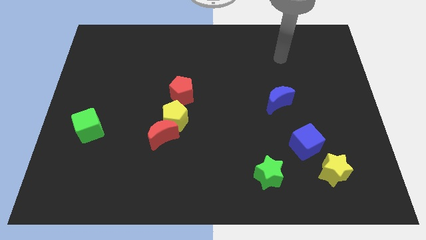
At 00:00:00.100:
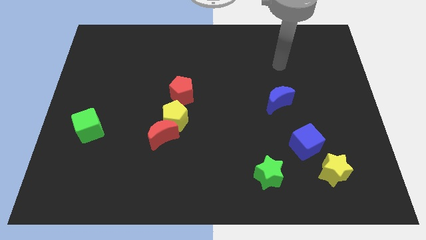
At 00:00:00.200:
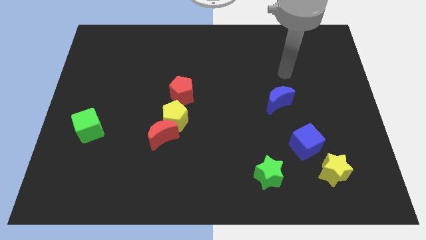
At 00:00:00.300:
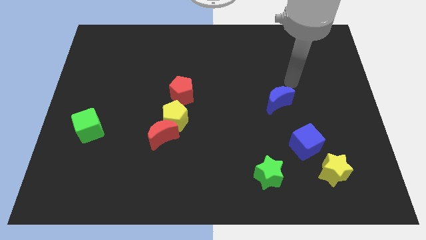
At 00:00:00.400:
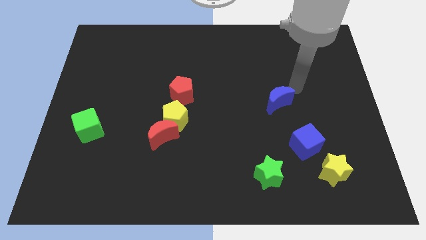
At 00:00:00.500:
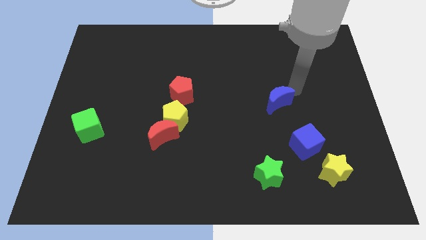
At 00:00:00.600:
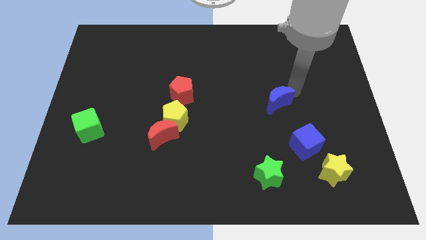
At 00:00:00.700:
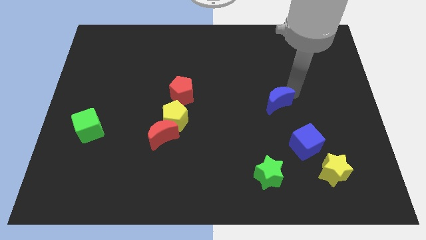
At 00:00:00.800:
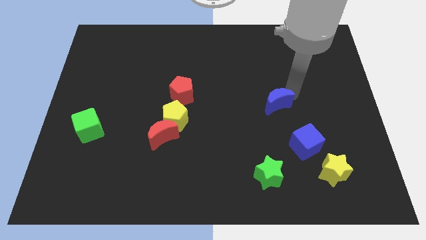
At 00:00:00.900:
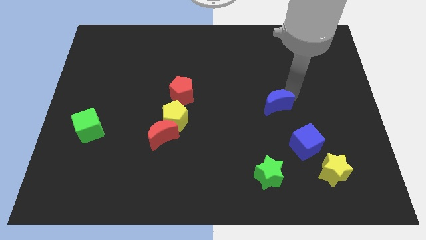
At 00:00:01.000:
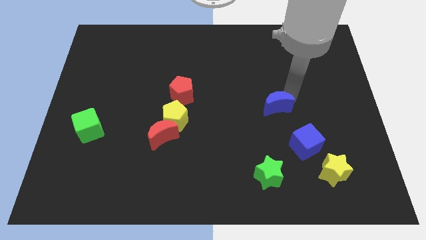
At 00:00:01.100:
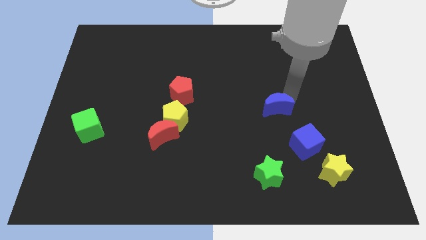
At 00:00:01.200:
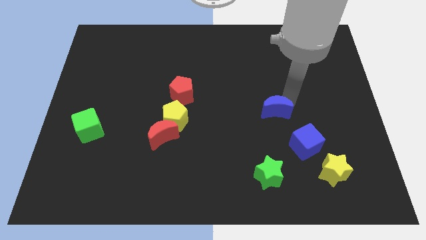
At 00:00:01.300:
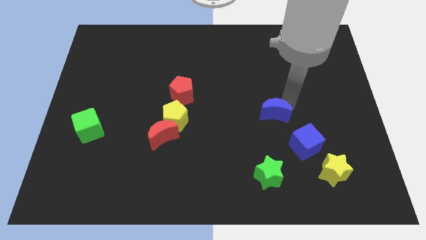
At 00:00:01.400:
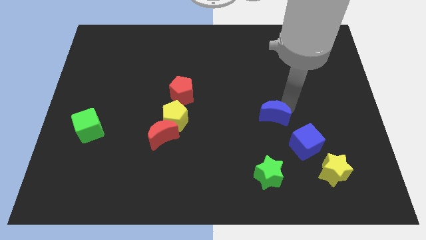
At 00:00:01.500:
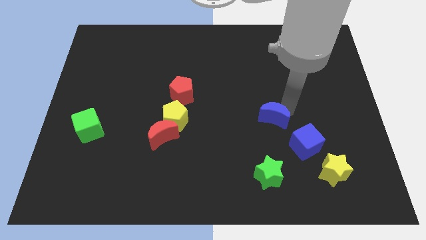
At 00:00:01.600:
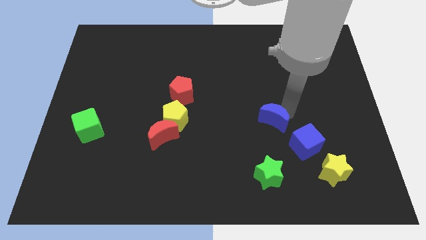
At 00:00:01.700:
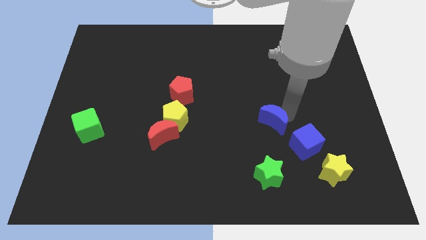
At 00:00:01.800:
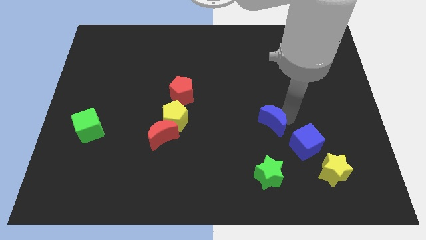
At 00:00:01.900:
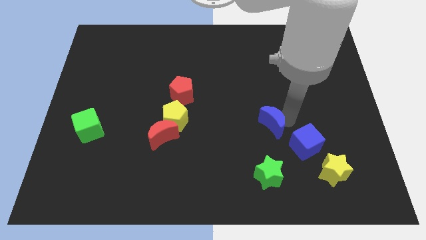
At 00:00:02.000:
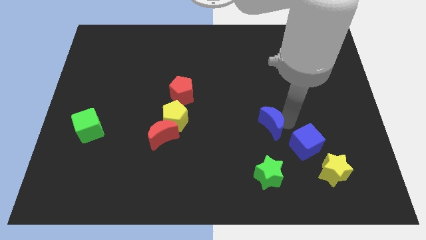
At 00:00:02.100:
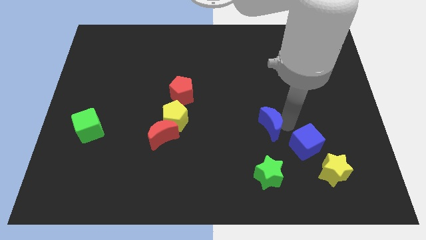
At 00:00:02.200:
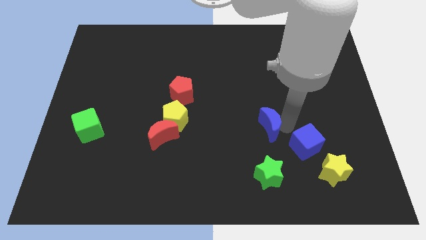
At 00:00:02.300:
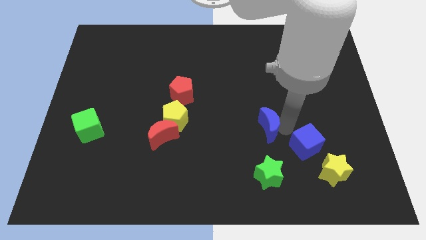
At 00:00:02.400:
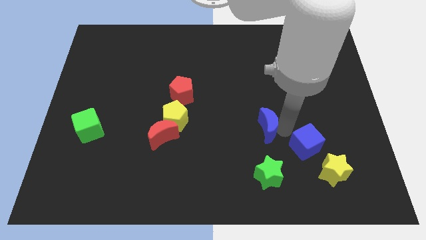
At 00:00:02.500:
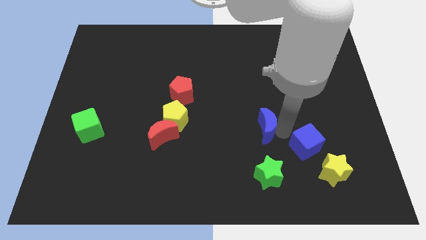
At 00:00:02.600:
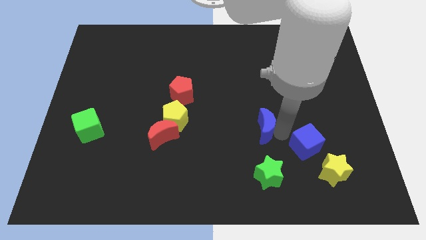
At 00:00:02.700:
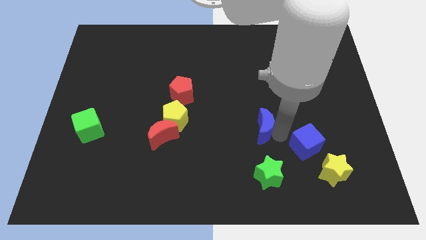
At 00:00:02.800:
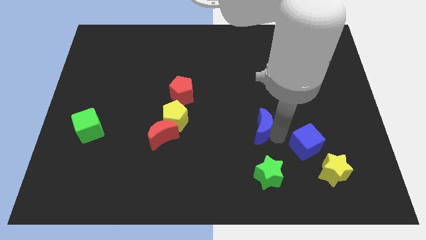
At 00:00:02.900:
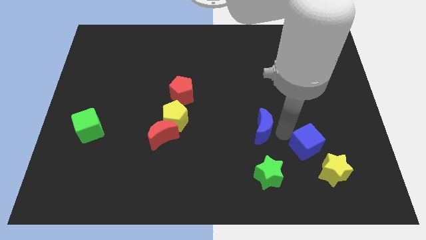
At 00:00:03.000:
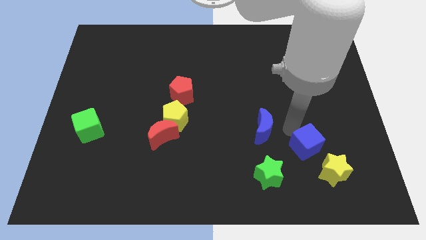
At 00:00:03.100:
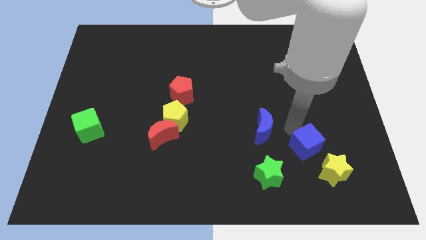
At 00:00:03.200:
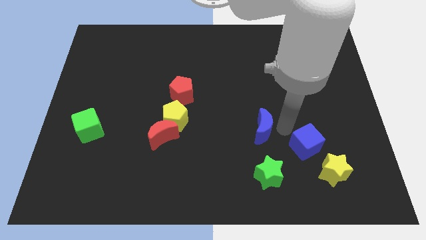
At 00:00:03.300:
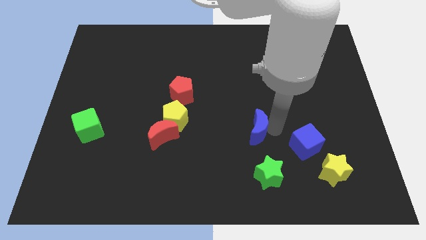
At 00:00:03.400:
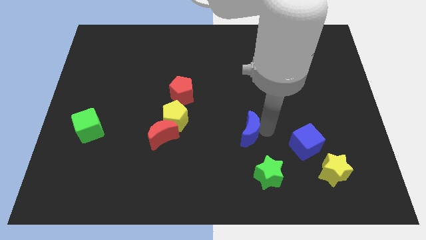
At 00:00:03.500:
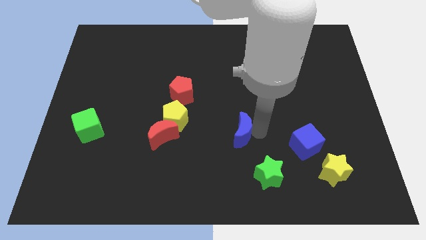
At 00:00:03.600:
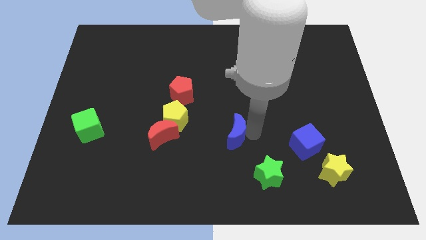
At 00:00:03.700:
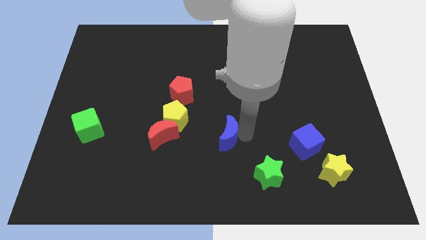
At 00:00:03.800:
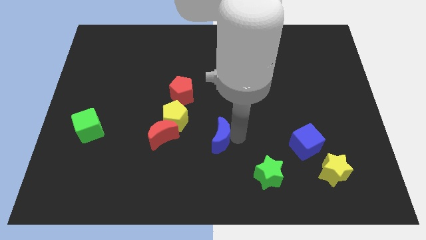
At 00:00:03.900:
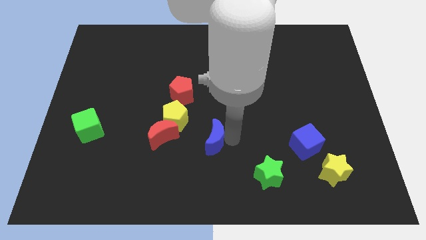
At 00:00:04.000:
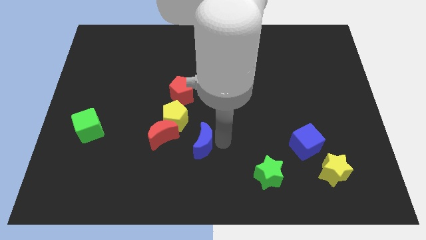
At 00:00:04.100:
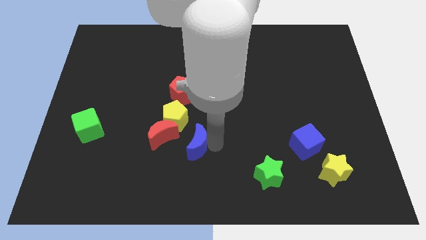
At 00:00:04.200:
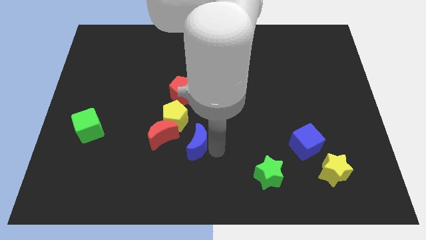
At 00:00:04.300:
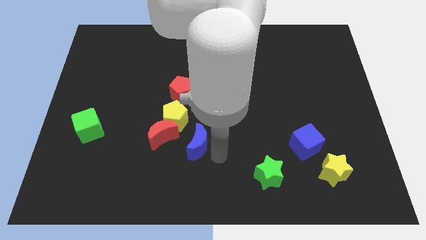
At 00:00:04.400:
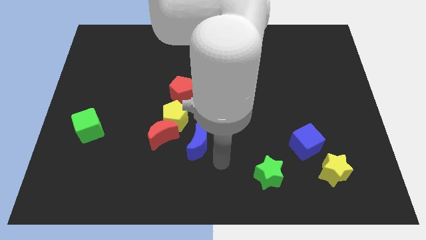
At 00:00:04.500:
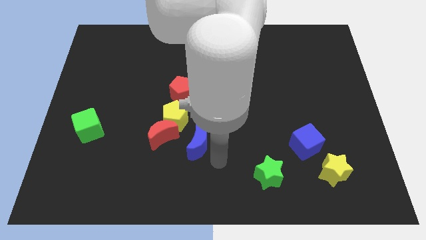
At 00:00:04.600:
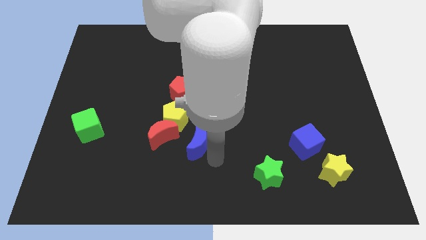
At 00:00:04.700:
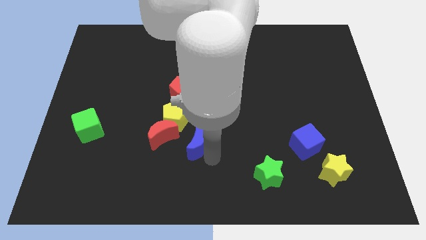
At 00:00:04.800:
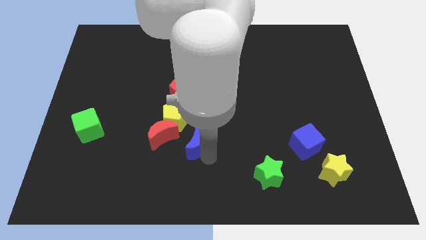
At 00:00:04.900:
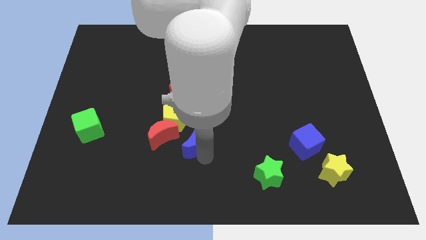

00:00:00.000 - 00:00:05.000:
slide the blue moon to the bottom of the red pentagon

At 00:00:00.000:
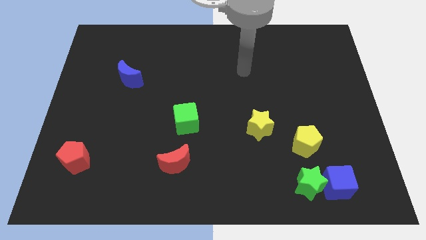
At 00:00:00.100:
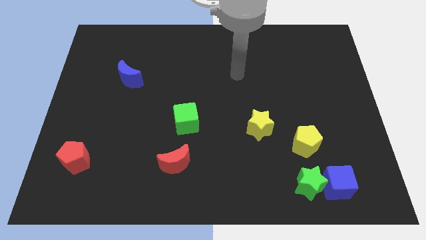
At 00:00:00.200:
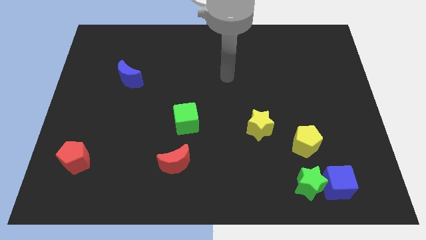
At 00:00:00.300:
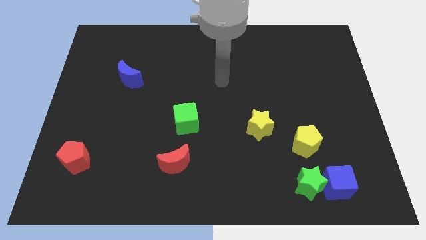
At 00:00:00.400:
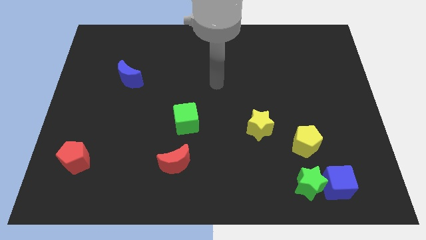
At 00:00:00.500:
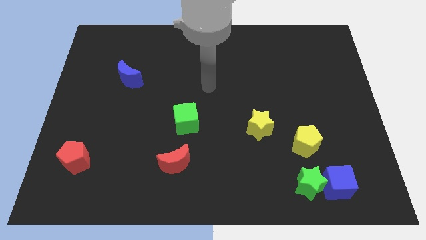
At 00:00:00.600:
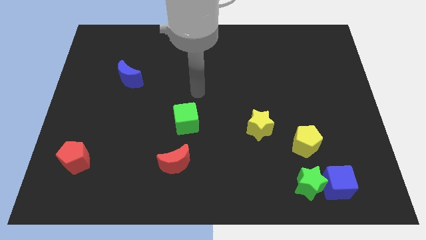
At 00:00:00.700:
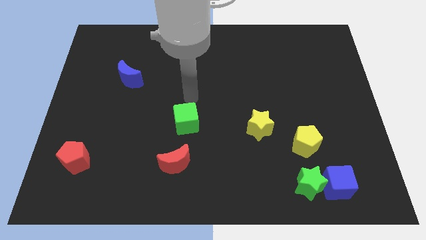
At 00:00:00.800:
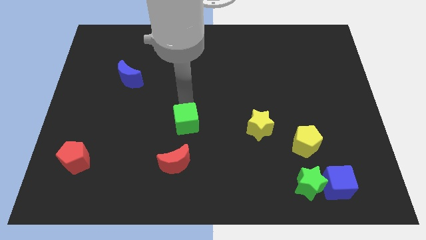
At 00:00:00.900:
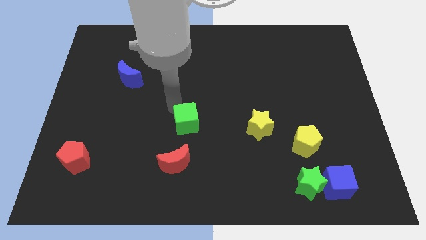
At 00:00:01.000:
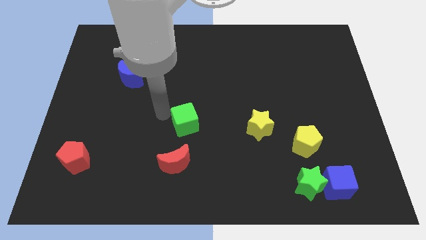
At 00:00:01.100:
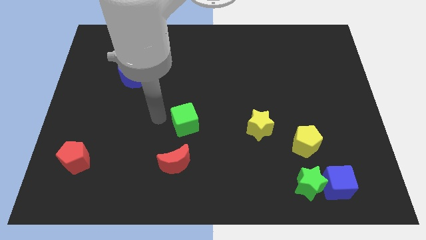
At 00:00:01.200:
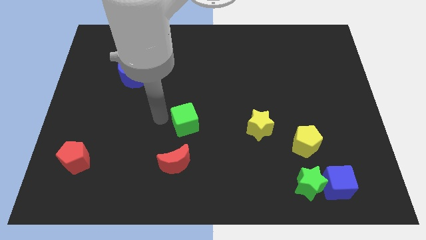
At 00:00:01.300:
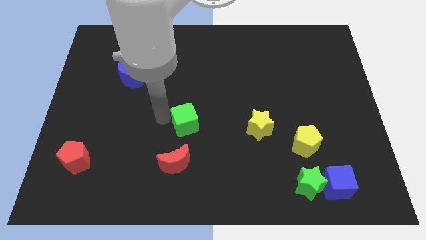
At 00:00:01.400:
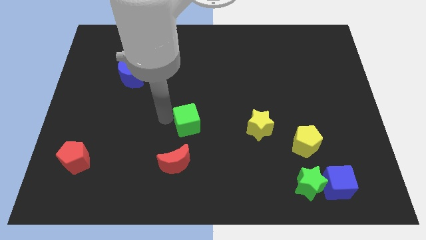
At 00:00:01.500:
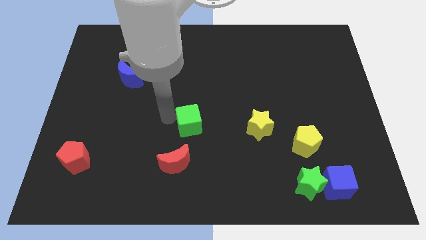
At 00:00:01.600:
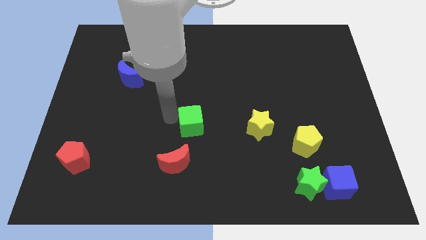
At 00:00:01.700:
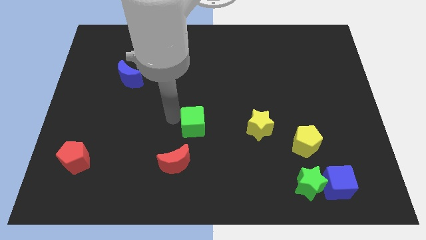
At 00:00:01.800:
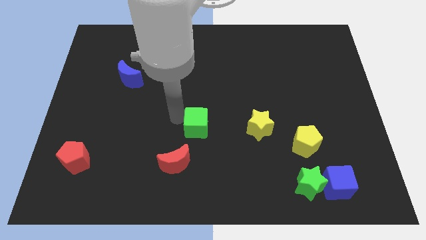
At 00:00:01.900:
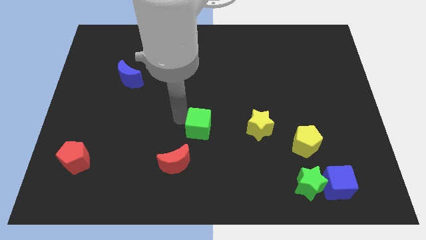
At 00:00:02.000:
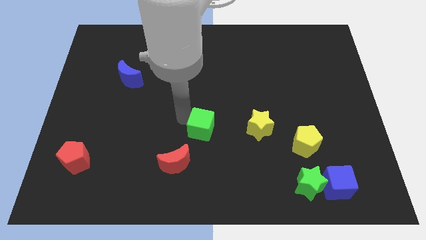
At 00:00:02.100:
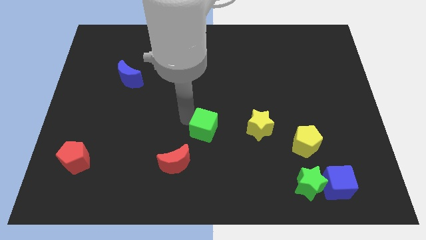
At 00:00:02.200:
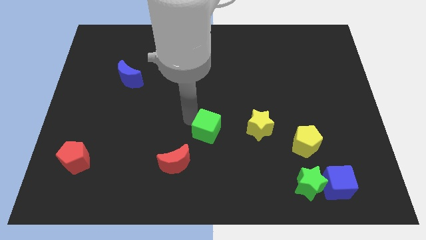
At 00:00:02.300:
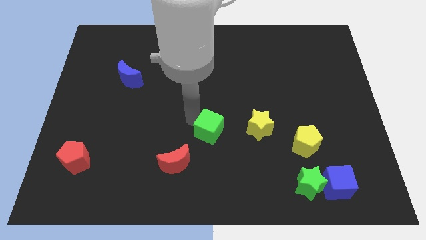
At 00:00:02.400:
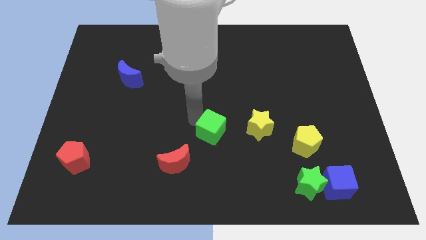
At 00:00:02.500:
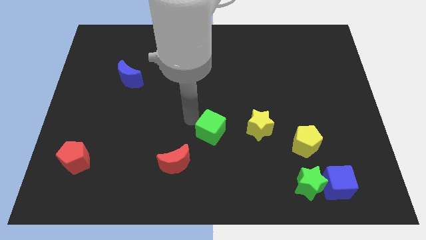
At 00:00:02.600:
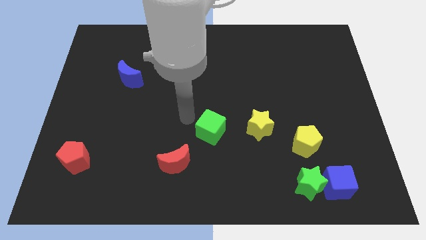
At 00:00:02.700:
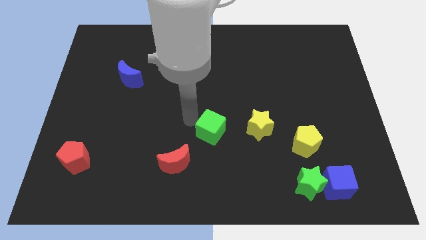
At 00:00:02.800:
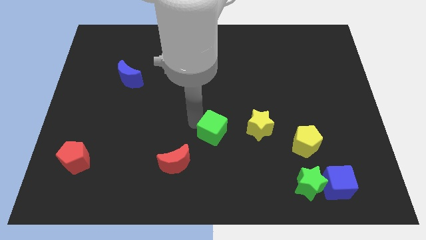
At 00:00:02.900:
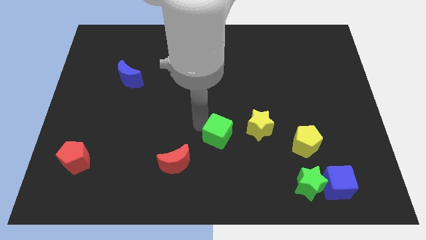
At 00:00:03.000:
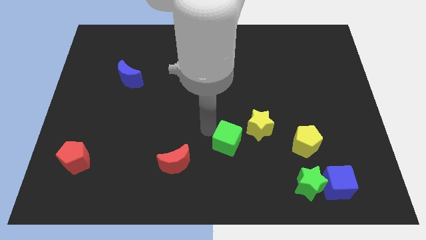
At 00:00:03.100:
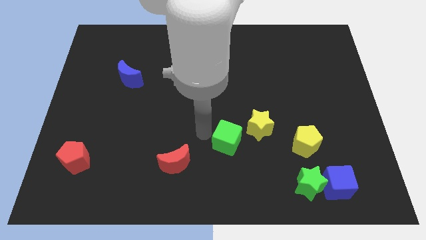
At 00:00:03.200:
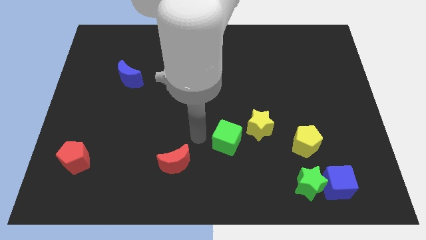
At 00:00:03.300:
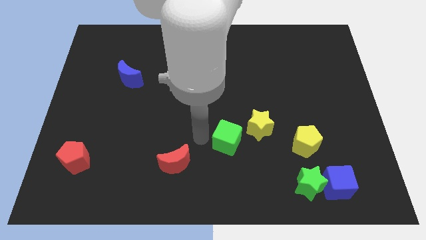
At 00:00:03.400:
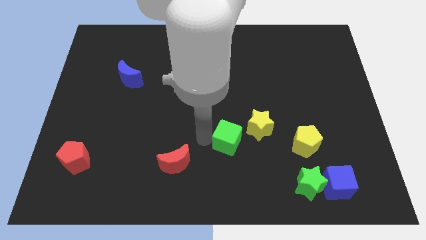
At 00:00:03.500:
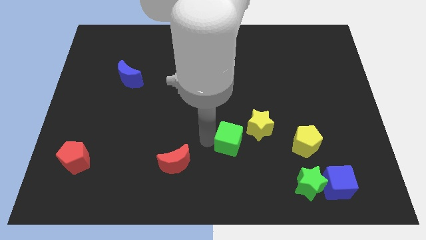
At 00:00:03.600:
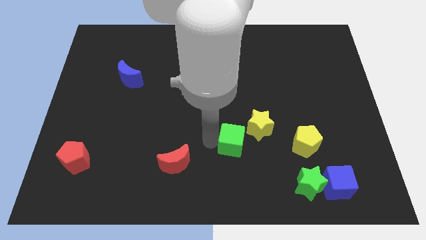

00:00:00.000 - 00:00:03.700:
put the green cube just left of the yellow pentagon
